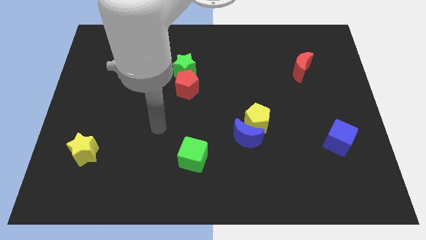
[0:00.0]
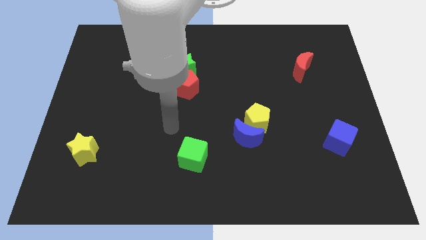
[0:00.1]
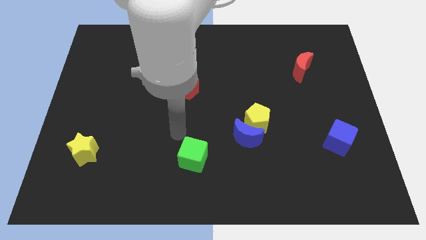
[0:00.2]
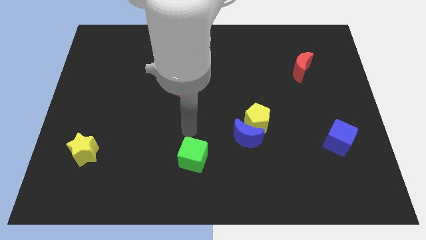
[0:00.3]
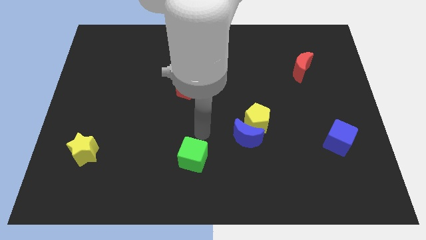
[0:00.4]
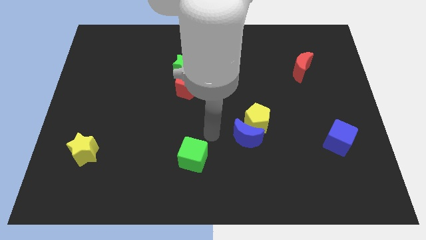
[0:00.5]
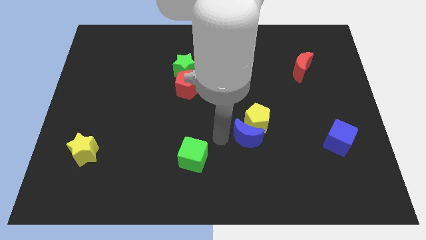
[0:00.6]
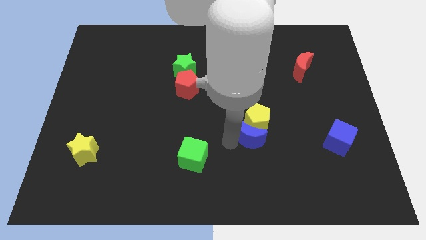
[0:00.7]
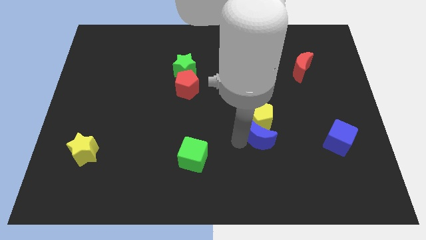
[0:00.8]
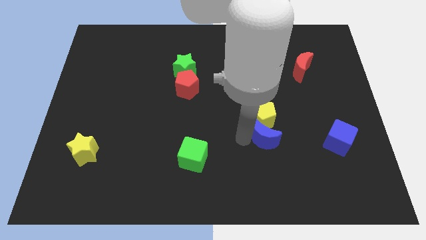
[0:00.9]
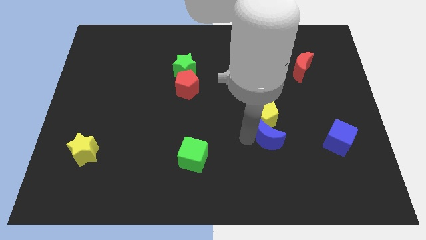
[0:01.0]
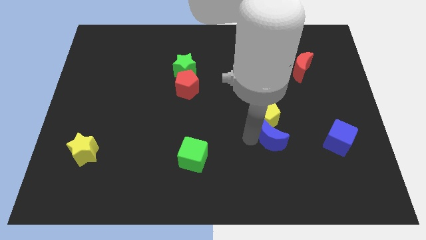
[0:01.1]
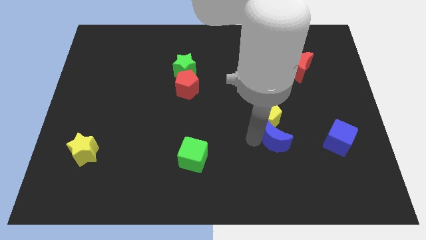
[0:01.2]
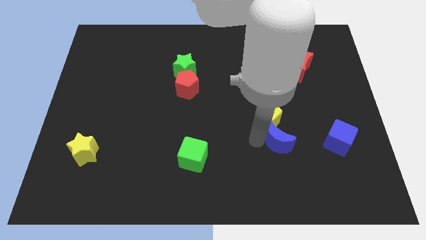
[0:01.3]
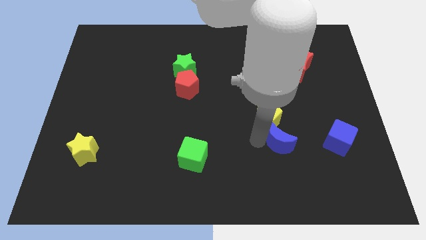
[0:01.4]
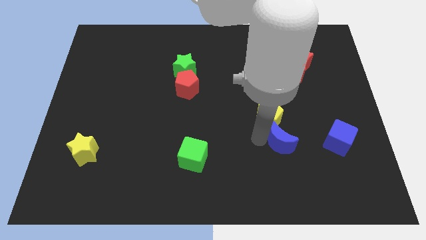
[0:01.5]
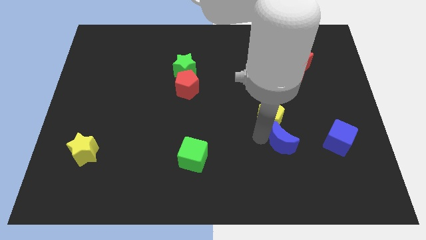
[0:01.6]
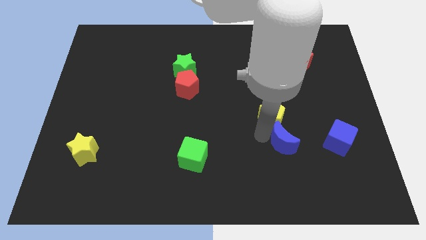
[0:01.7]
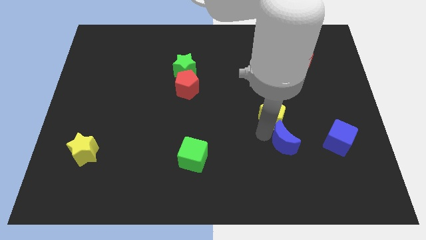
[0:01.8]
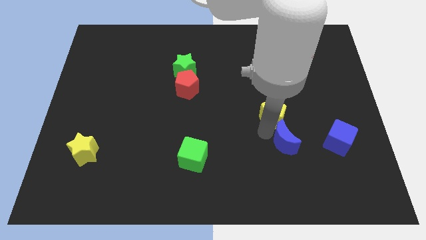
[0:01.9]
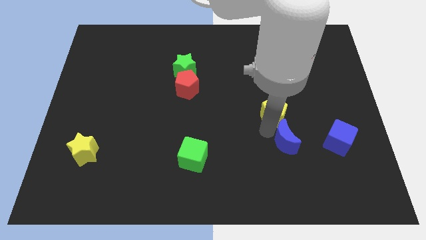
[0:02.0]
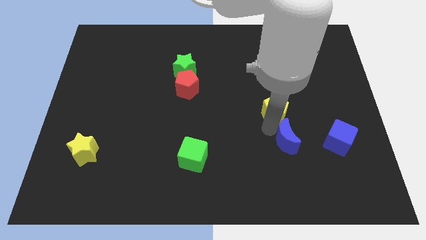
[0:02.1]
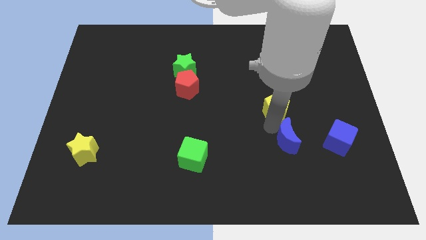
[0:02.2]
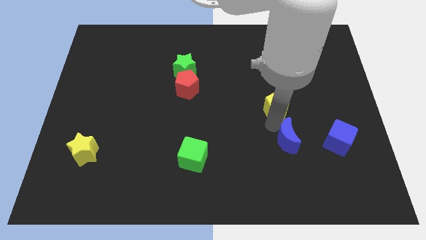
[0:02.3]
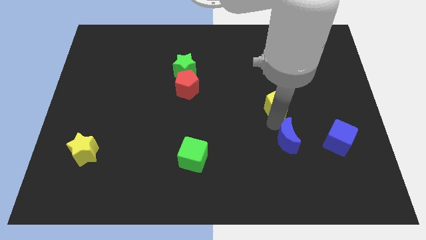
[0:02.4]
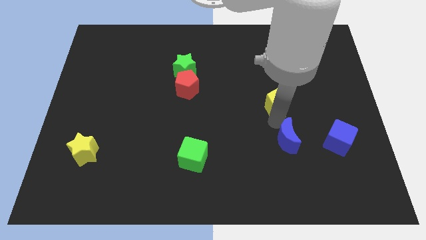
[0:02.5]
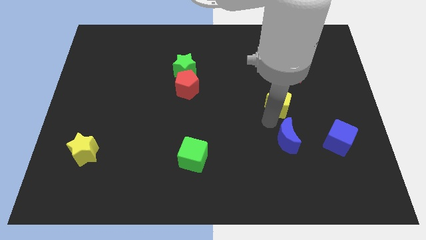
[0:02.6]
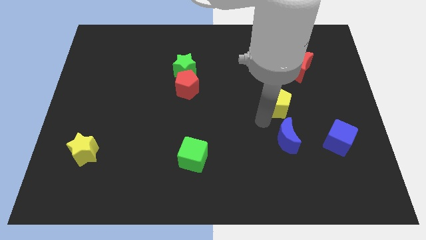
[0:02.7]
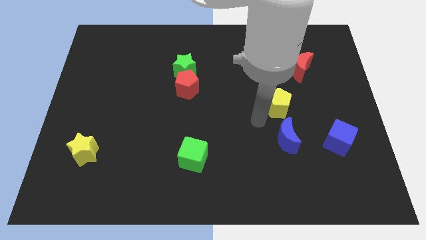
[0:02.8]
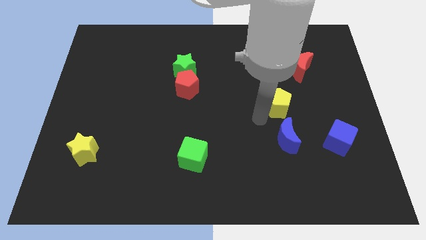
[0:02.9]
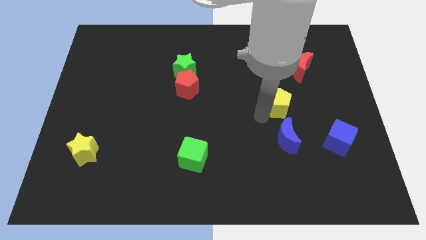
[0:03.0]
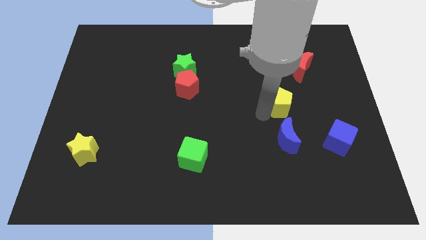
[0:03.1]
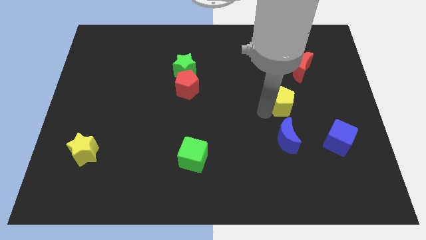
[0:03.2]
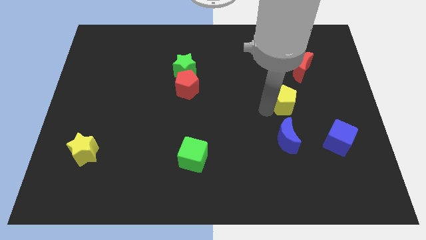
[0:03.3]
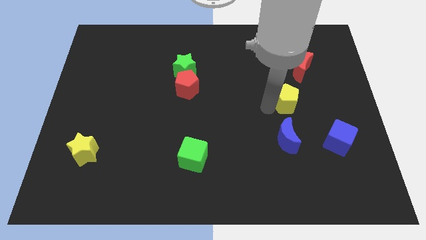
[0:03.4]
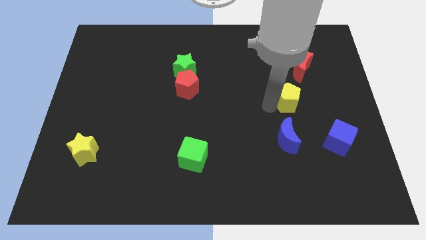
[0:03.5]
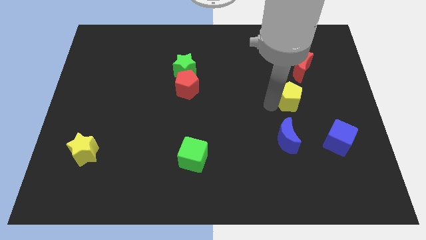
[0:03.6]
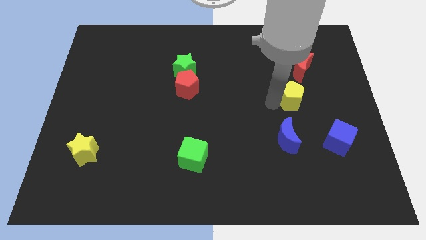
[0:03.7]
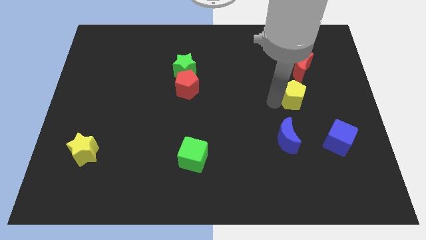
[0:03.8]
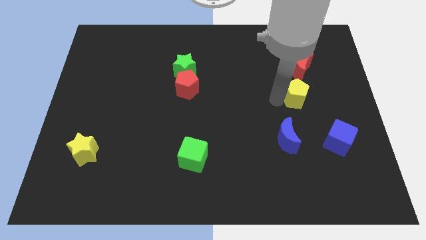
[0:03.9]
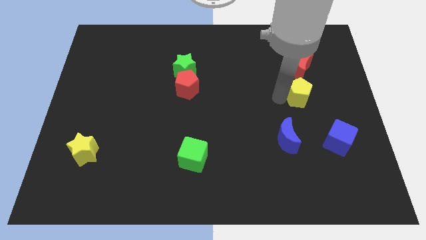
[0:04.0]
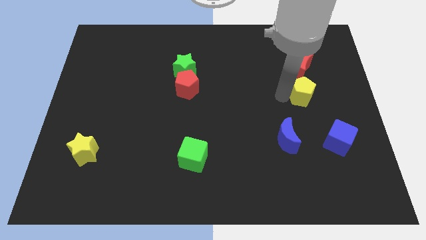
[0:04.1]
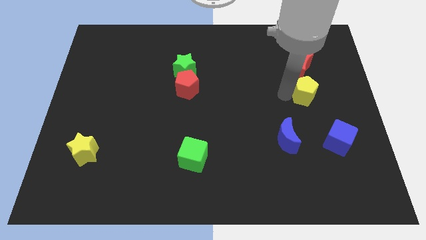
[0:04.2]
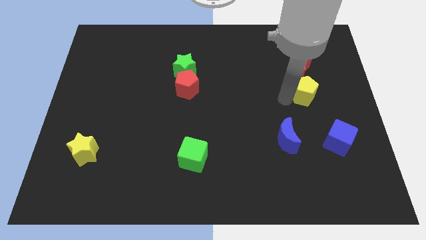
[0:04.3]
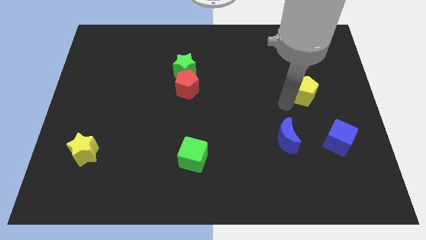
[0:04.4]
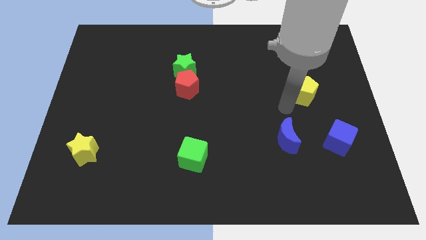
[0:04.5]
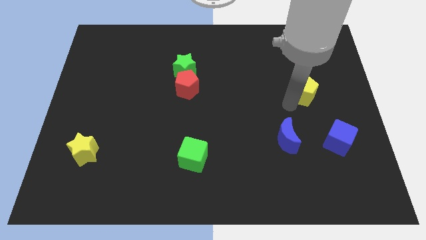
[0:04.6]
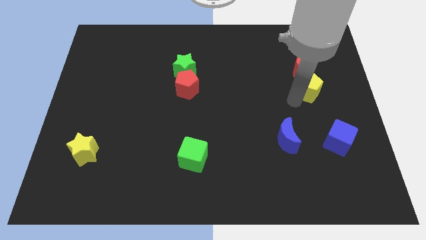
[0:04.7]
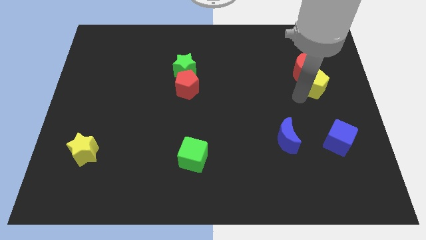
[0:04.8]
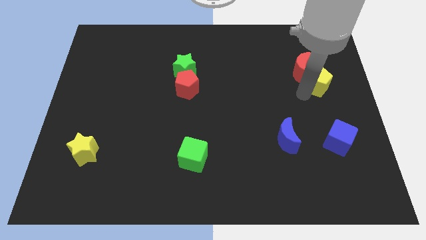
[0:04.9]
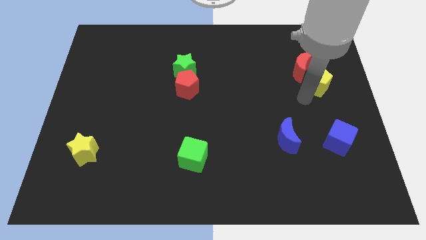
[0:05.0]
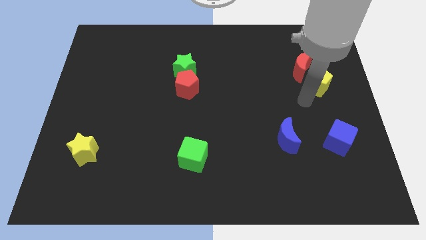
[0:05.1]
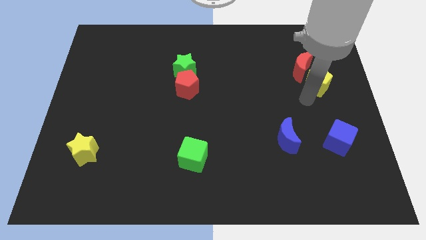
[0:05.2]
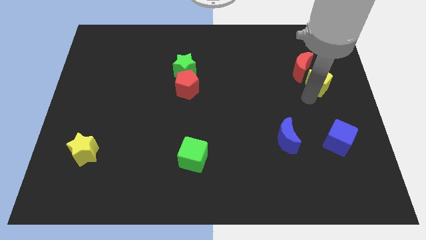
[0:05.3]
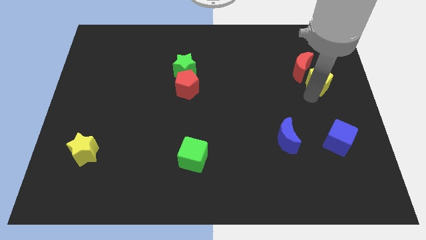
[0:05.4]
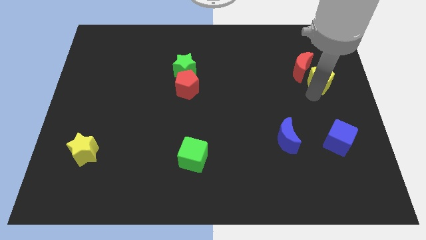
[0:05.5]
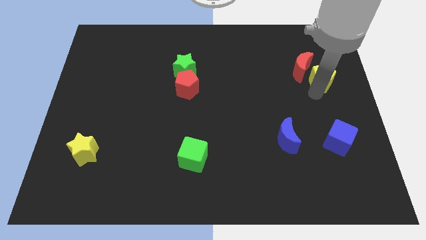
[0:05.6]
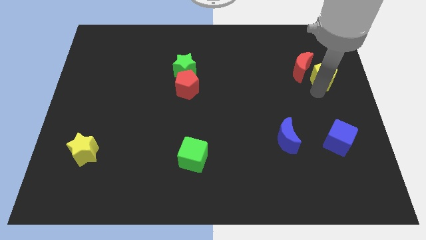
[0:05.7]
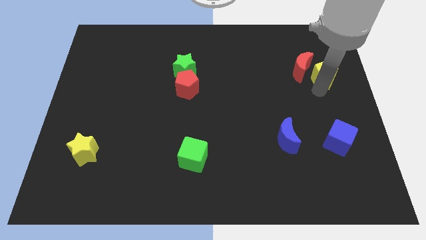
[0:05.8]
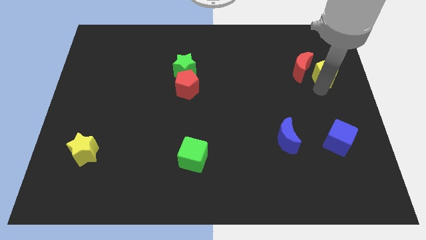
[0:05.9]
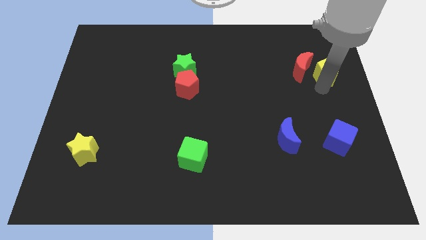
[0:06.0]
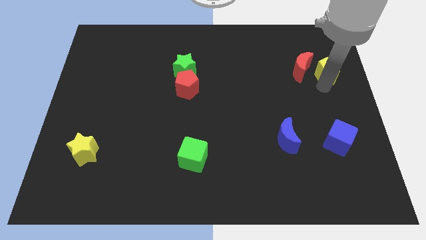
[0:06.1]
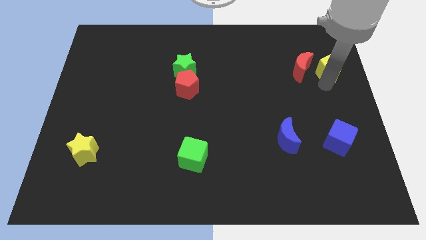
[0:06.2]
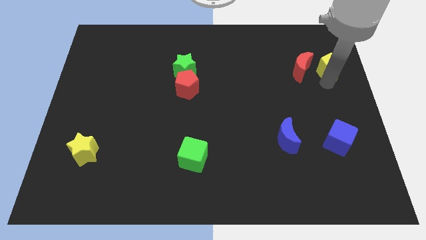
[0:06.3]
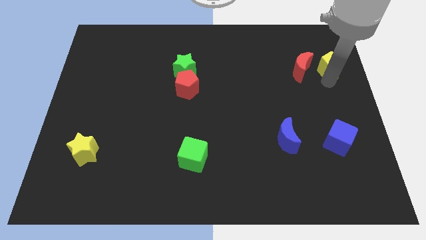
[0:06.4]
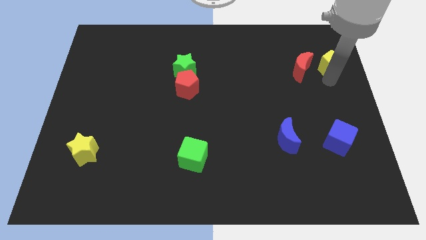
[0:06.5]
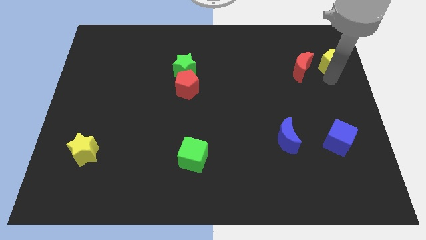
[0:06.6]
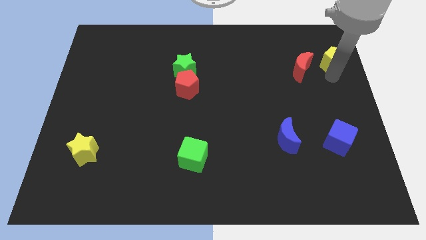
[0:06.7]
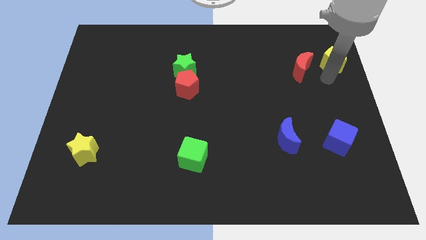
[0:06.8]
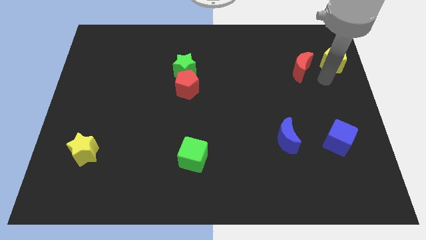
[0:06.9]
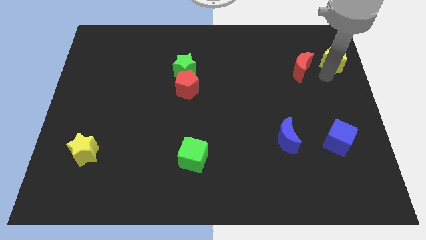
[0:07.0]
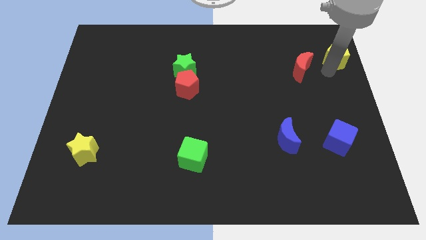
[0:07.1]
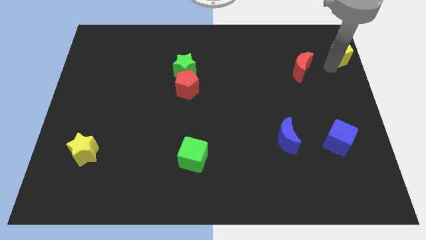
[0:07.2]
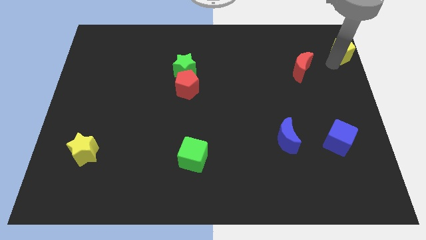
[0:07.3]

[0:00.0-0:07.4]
put the yellow pentagon to the top right of the board
